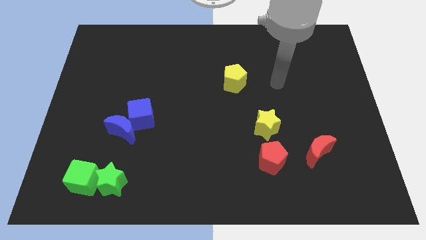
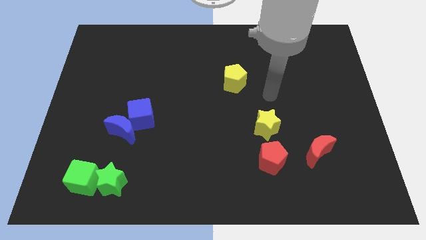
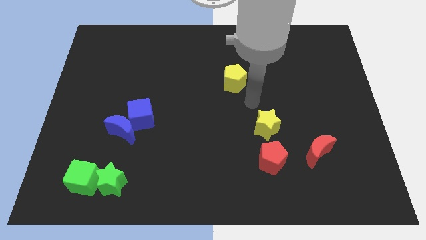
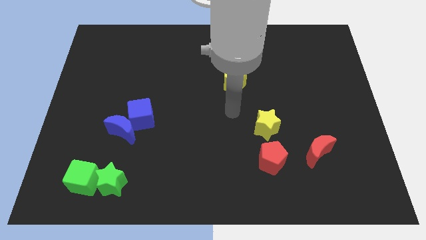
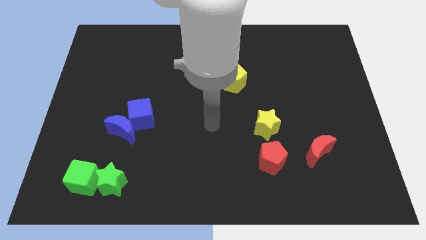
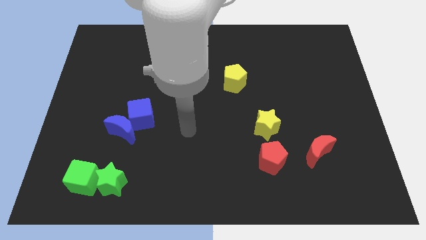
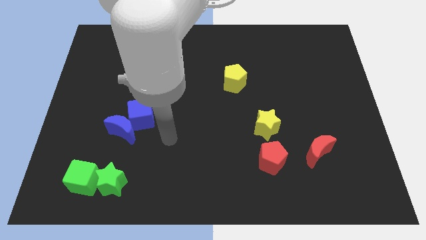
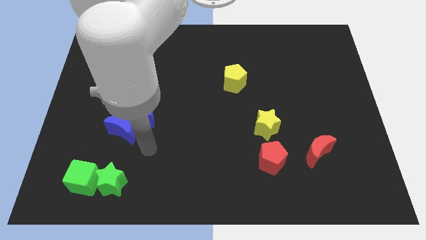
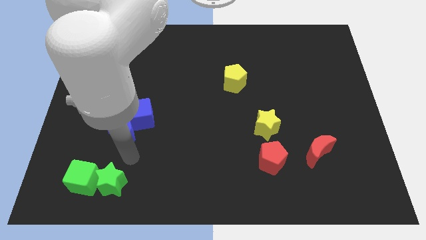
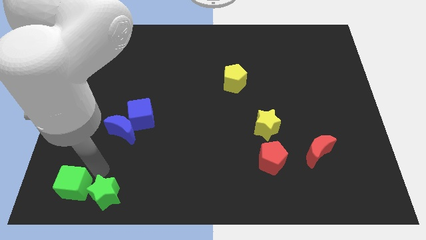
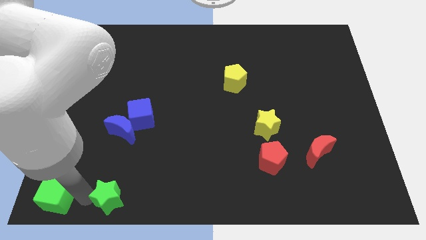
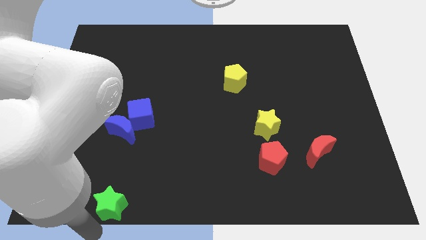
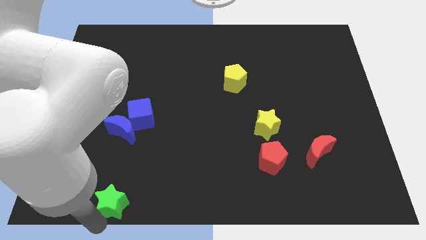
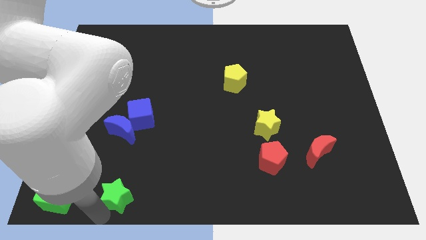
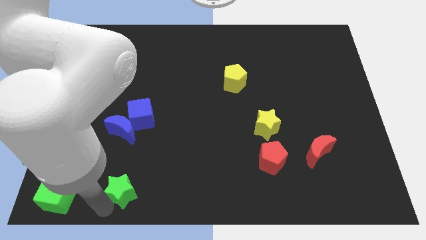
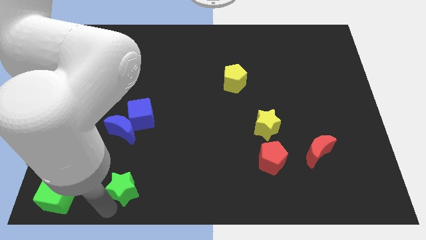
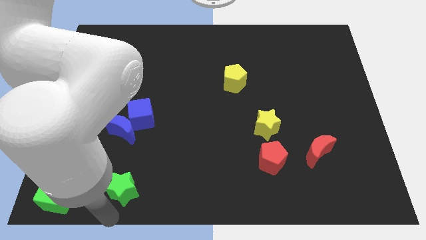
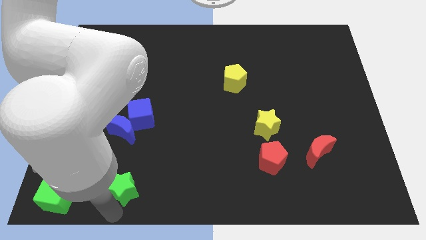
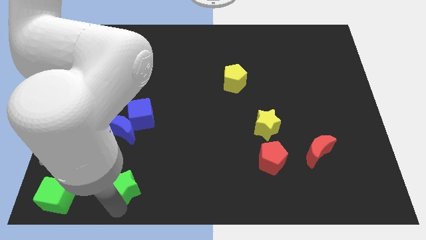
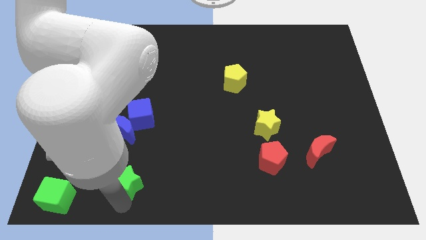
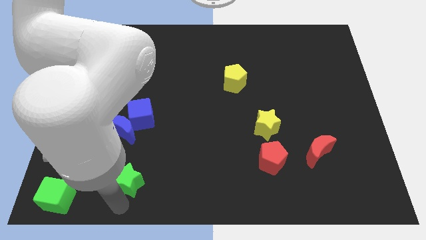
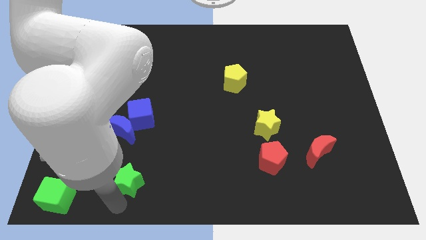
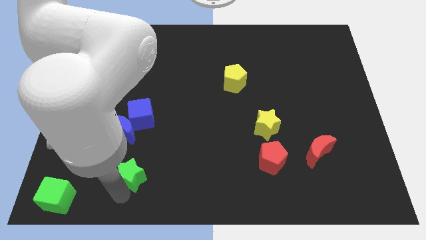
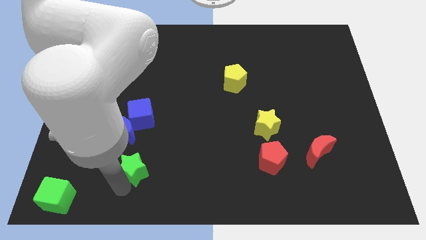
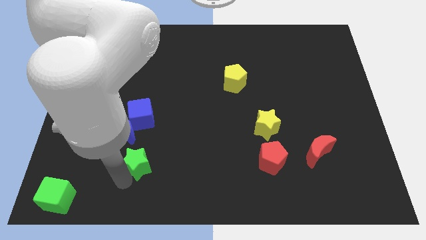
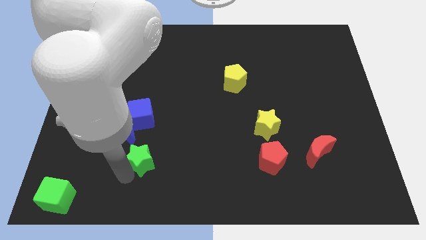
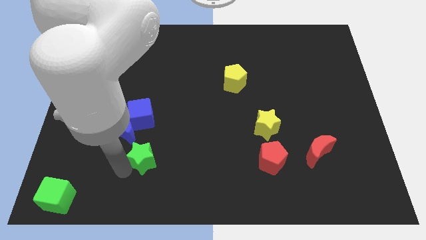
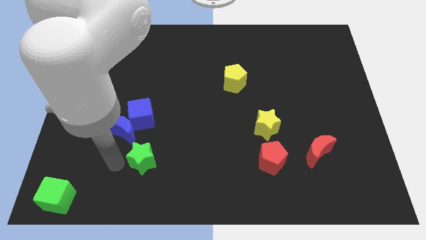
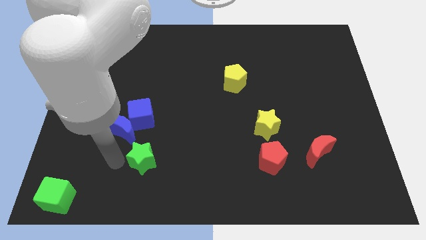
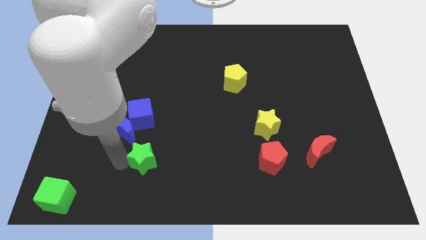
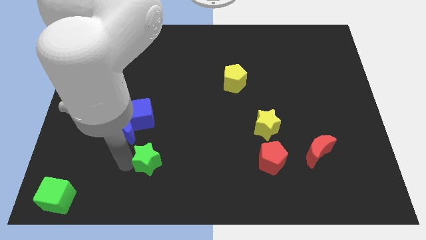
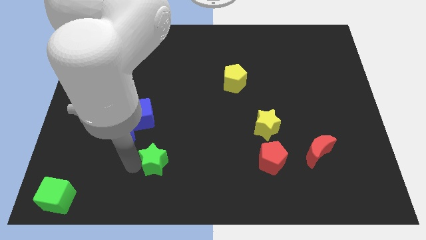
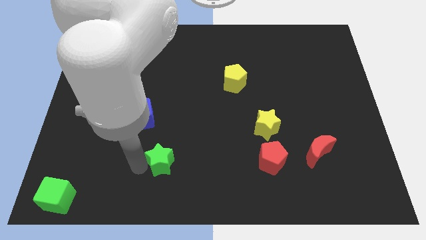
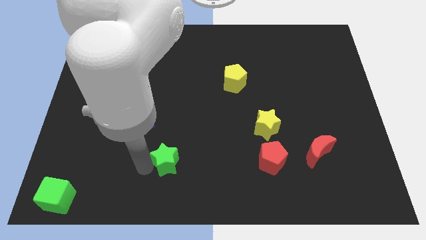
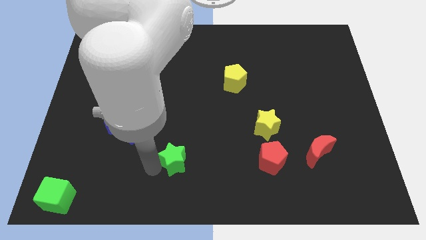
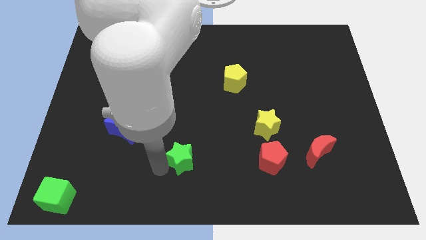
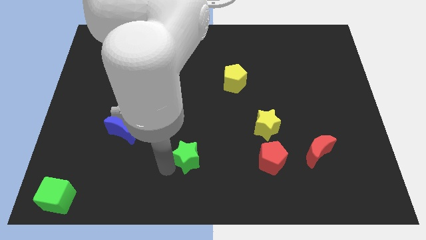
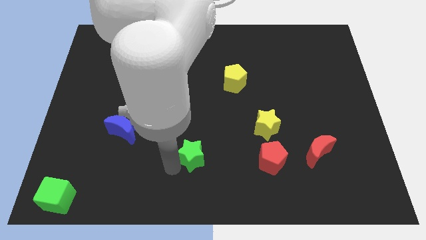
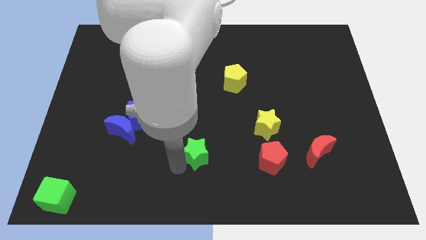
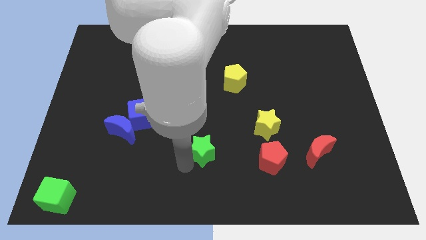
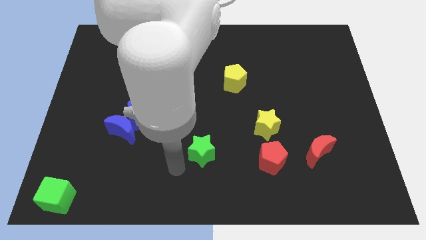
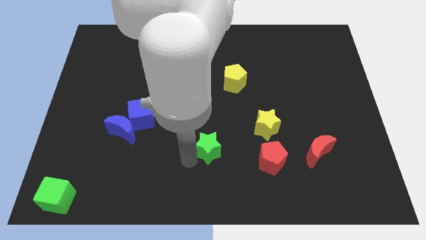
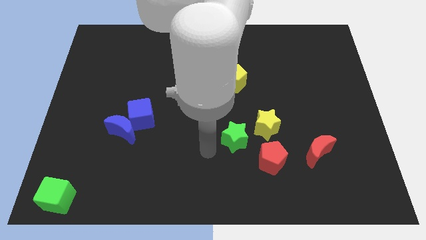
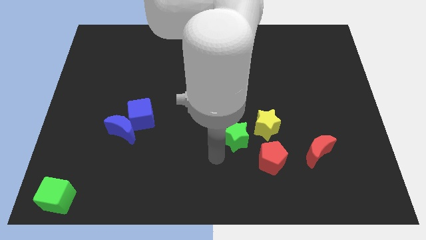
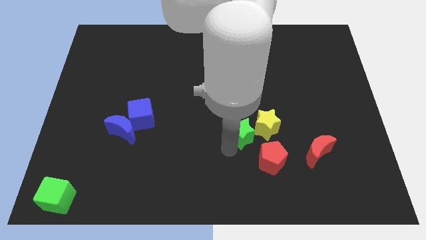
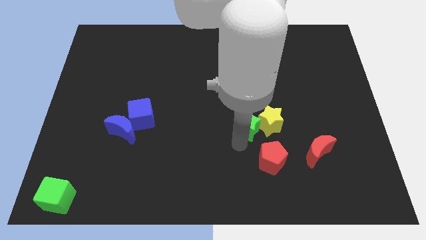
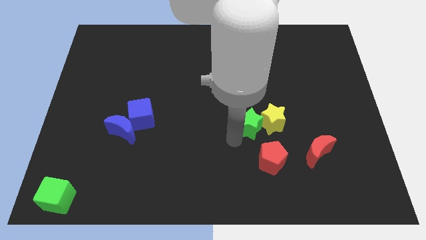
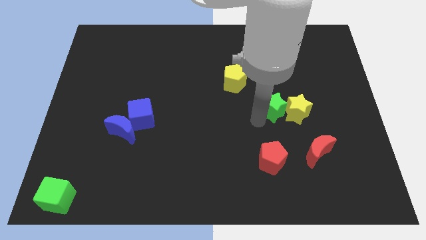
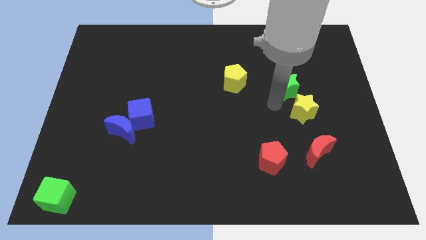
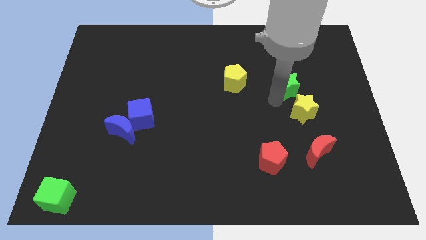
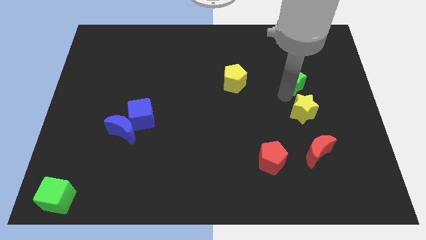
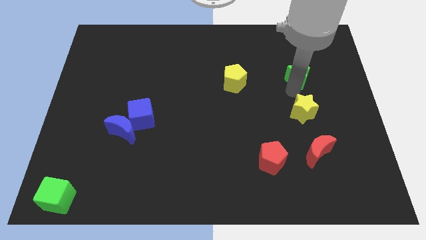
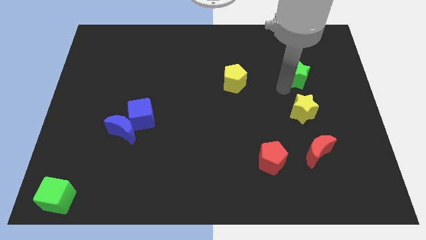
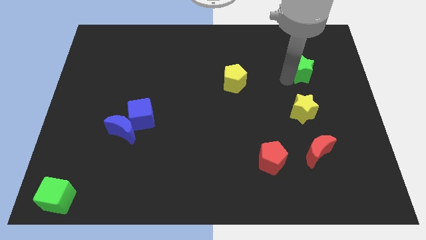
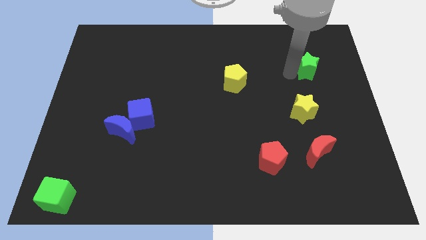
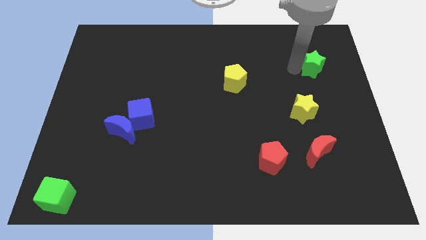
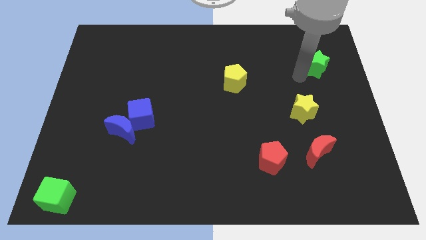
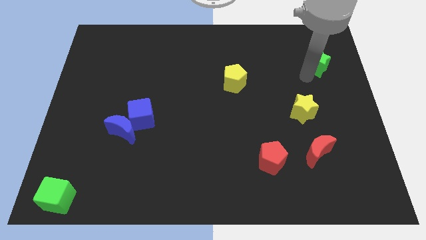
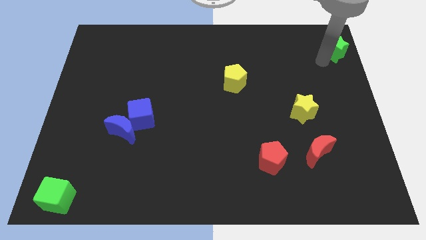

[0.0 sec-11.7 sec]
move the green star to the top right

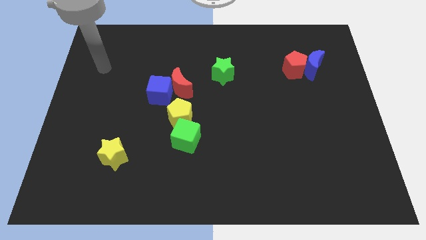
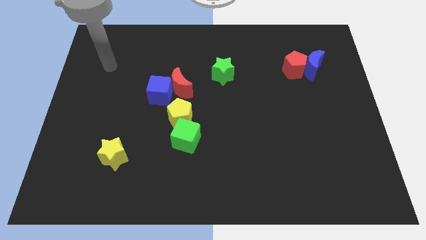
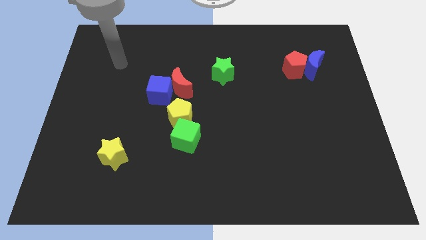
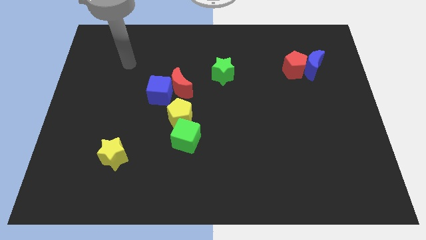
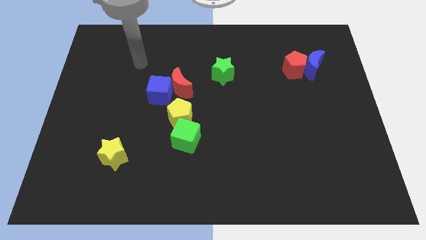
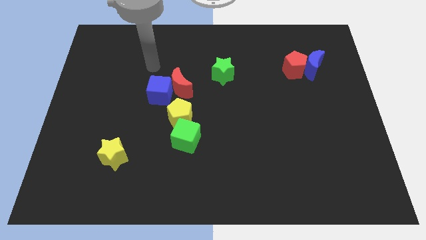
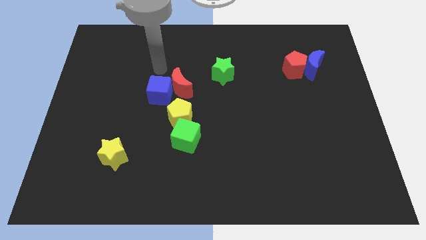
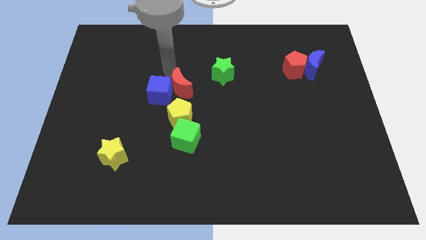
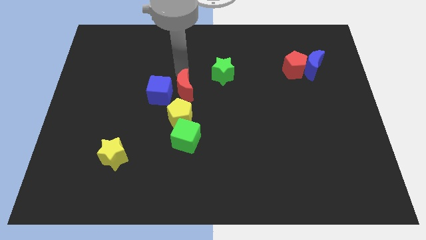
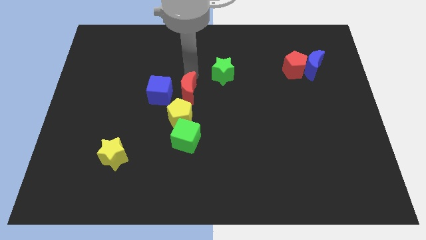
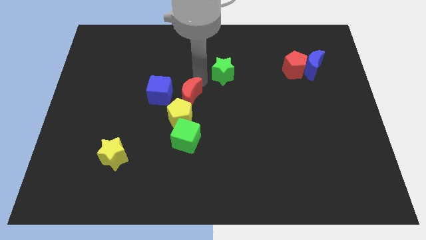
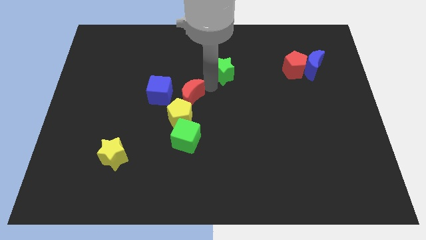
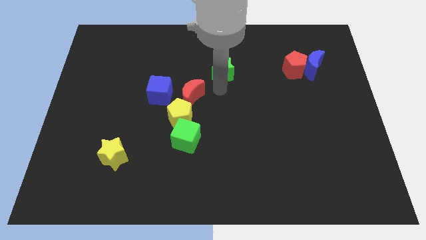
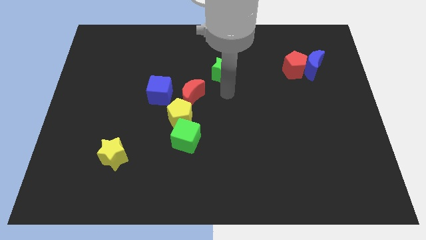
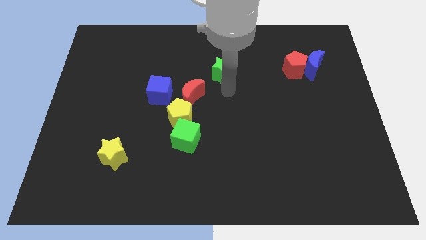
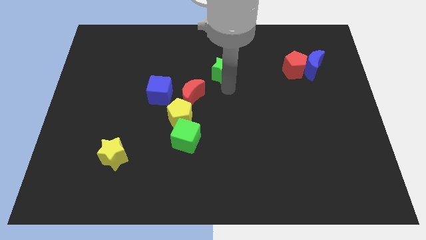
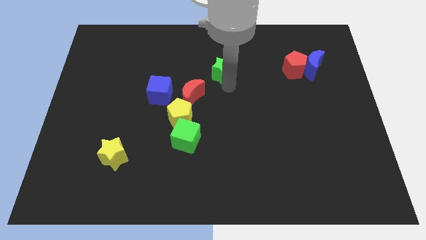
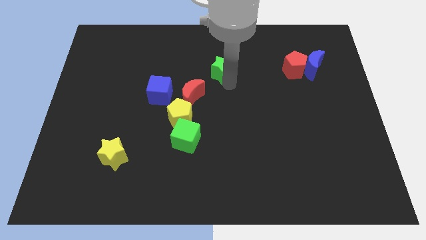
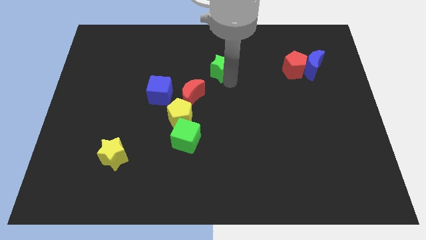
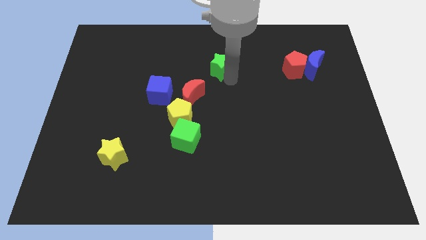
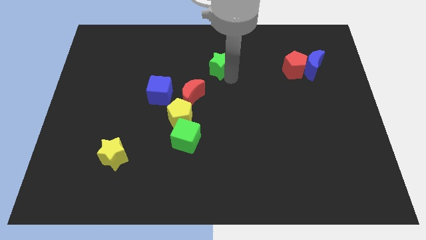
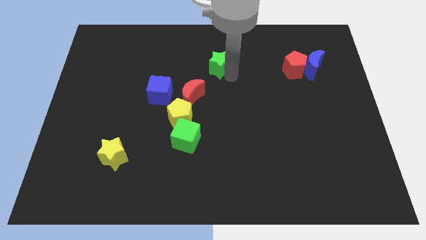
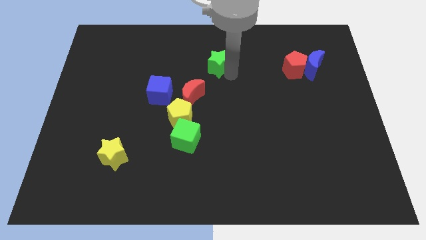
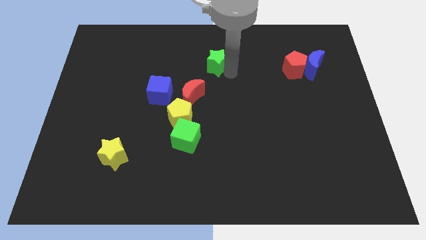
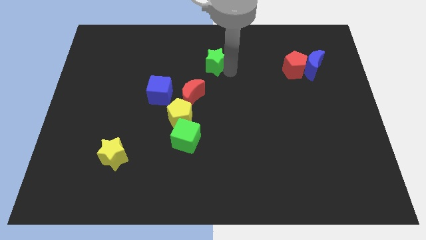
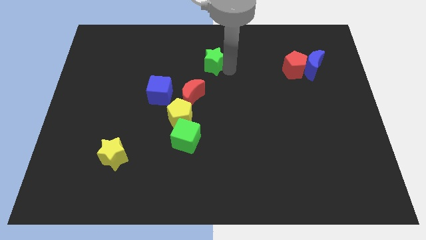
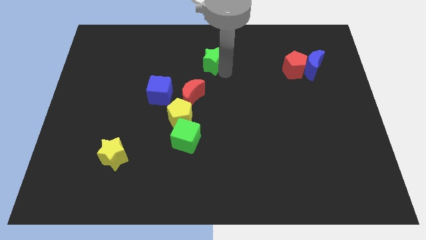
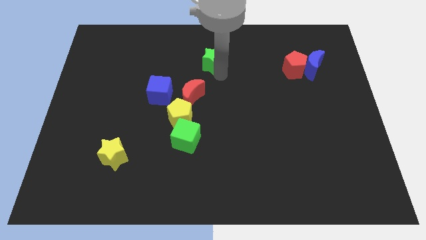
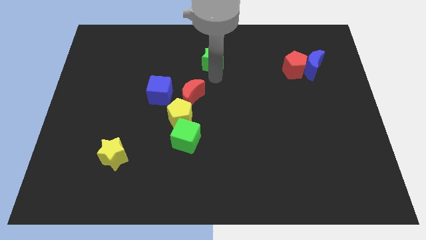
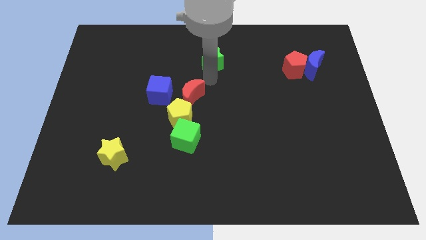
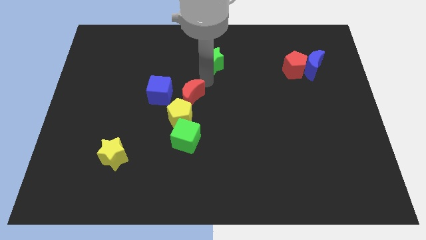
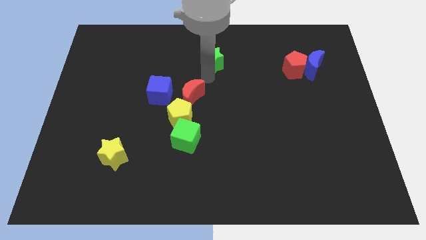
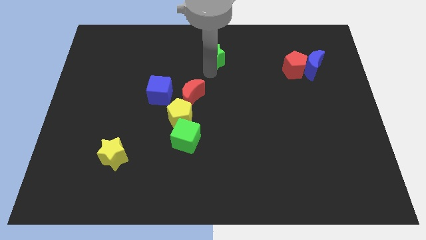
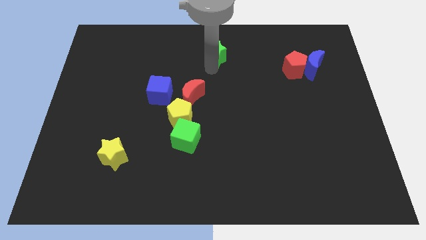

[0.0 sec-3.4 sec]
put the green star to the top side
